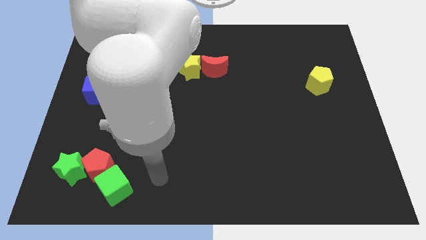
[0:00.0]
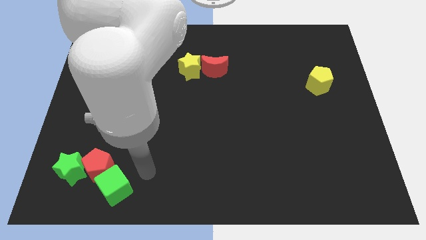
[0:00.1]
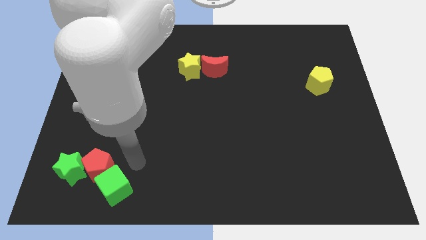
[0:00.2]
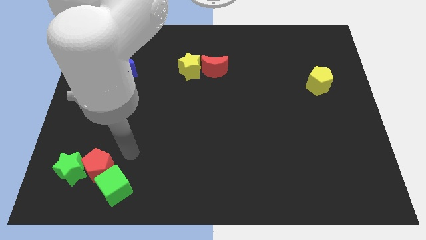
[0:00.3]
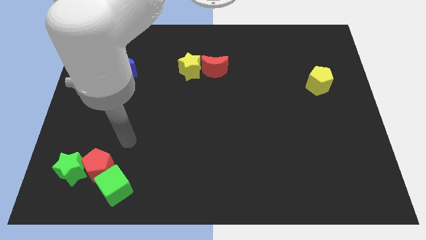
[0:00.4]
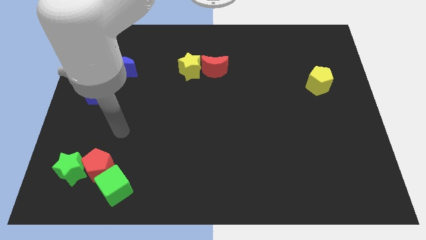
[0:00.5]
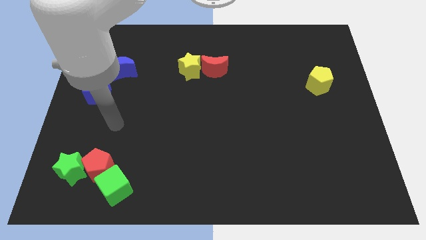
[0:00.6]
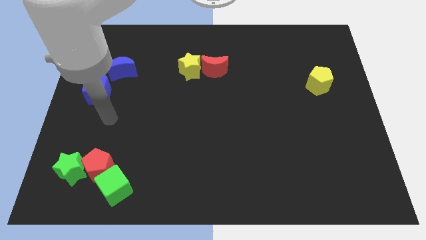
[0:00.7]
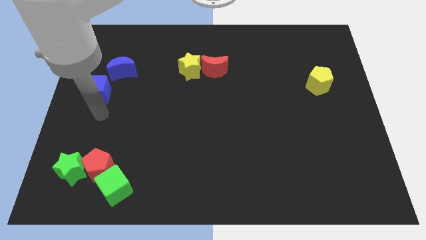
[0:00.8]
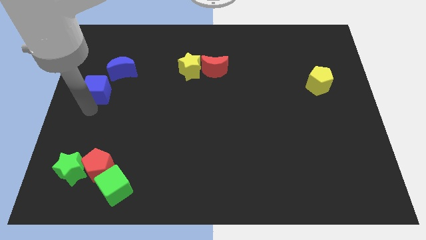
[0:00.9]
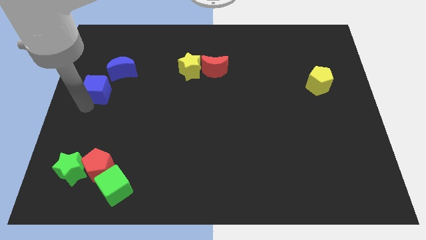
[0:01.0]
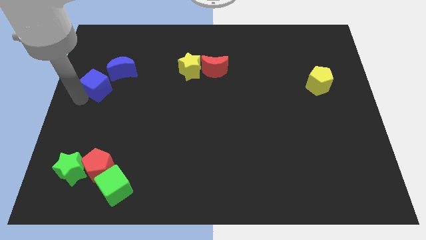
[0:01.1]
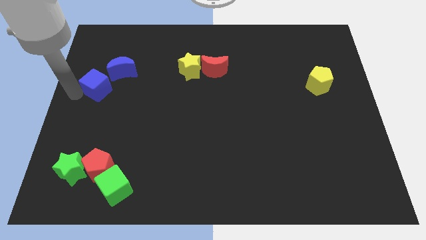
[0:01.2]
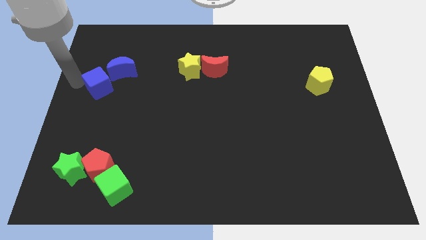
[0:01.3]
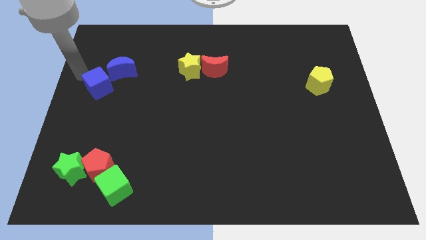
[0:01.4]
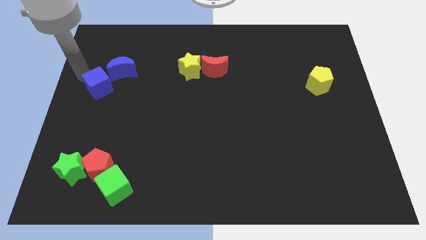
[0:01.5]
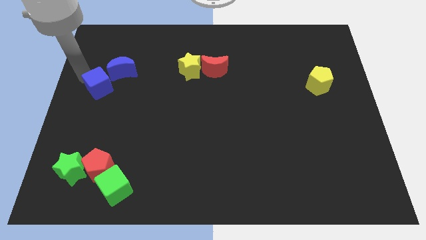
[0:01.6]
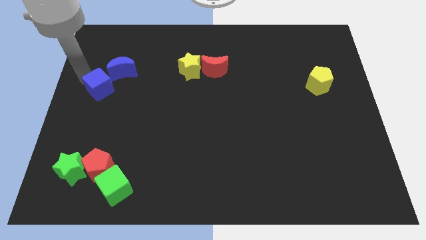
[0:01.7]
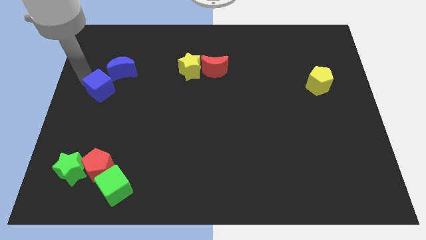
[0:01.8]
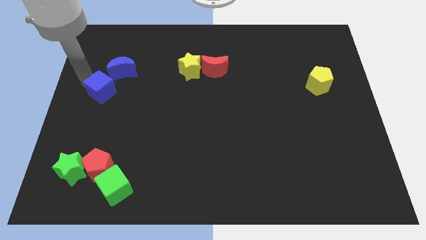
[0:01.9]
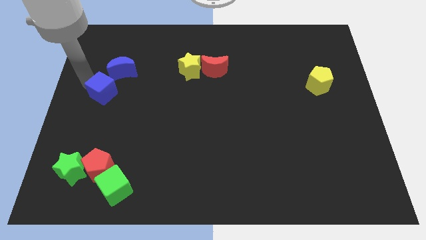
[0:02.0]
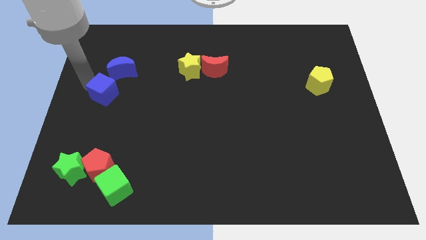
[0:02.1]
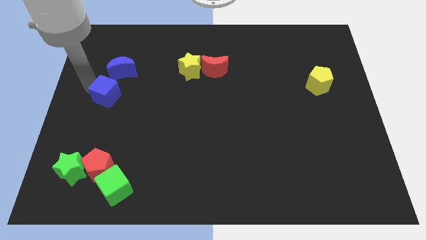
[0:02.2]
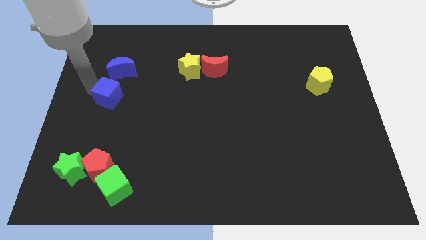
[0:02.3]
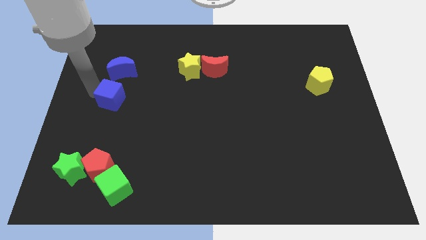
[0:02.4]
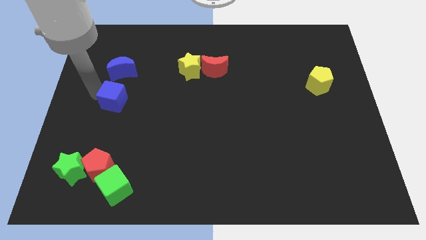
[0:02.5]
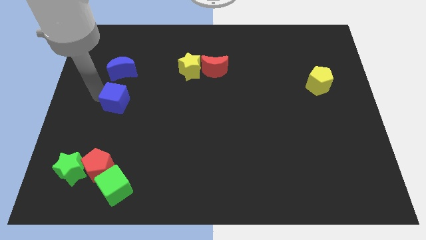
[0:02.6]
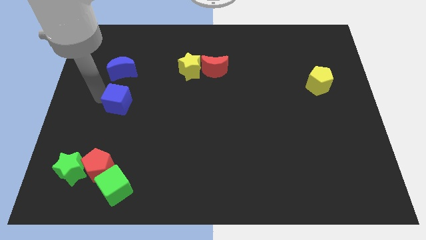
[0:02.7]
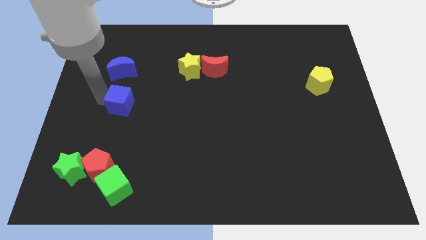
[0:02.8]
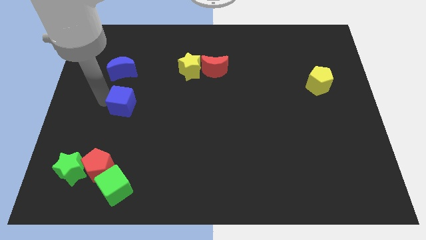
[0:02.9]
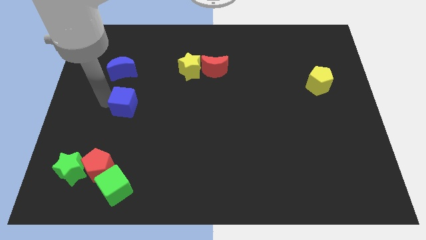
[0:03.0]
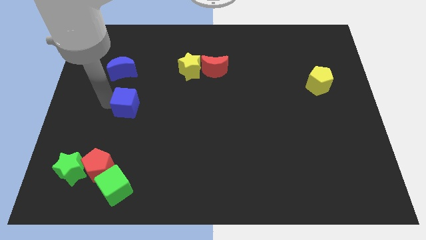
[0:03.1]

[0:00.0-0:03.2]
slide the blue cube slightly right

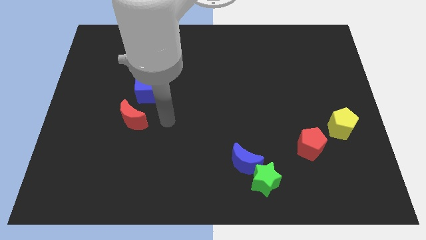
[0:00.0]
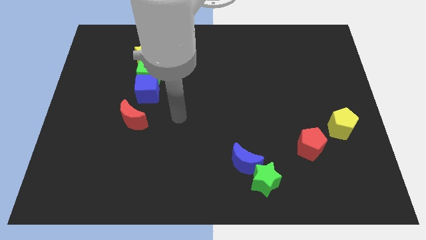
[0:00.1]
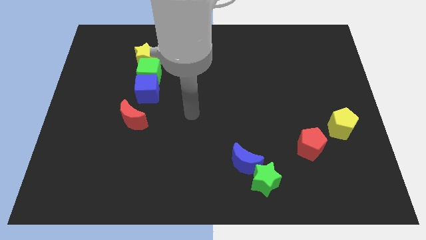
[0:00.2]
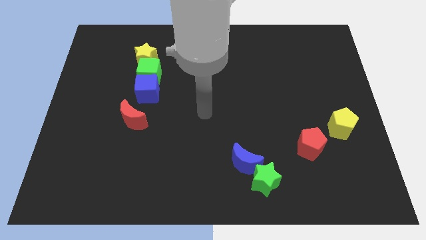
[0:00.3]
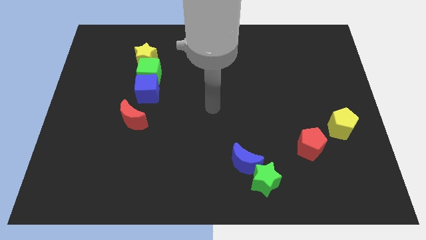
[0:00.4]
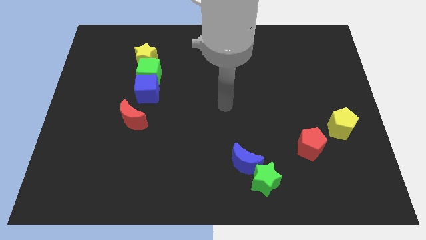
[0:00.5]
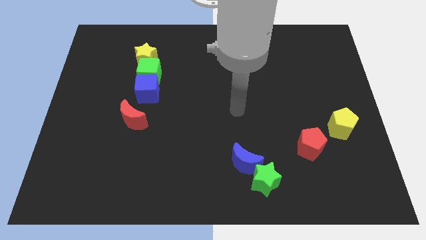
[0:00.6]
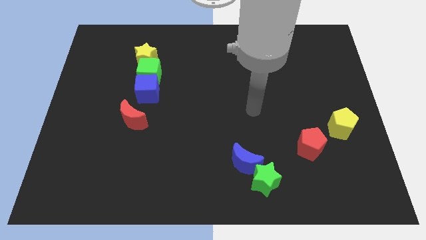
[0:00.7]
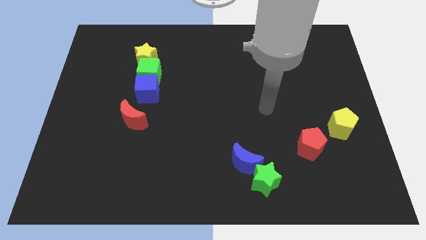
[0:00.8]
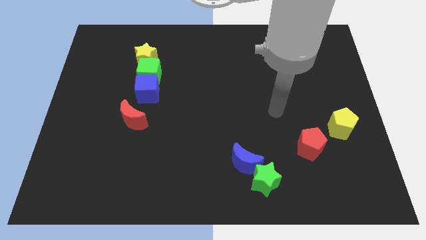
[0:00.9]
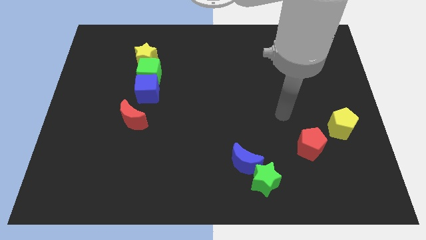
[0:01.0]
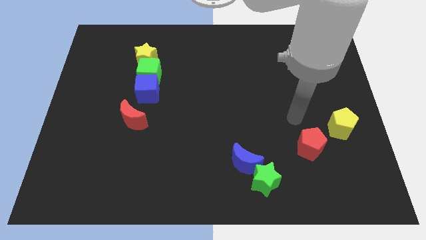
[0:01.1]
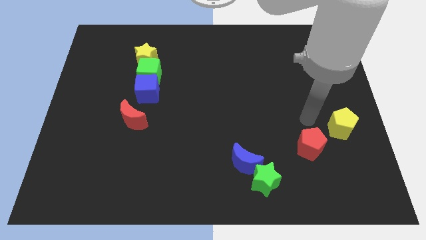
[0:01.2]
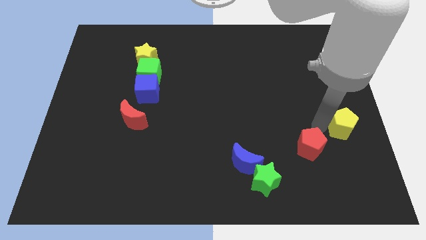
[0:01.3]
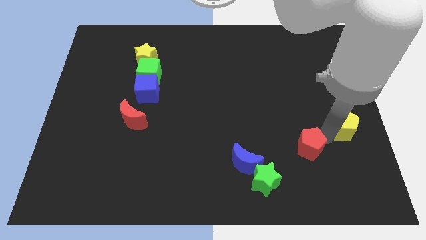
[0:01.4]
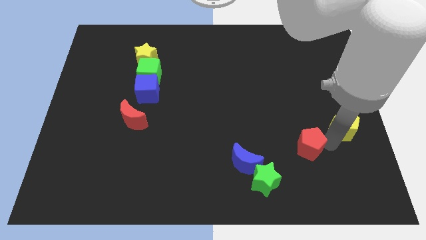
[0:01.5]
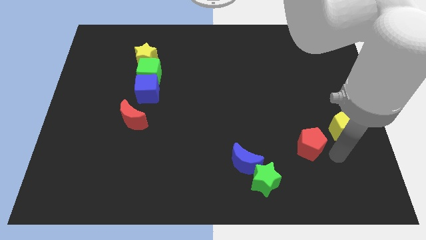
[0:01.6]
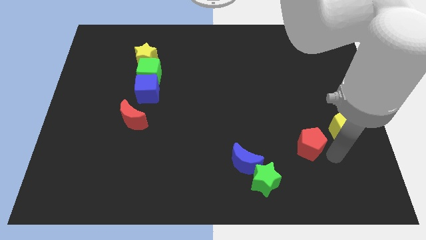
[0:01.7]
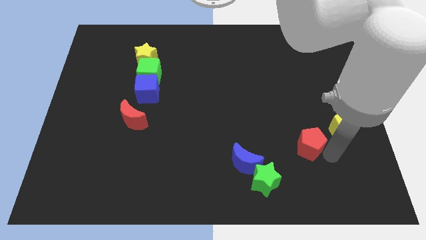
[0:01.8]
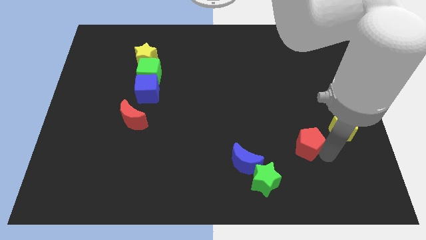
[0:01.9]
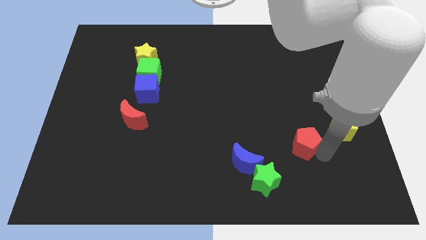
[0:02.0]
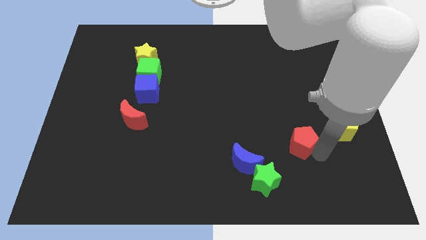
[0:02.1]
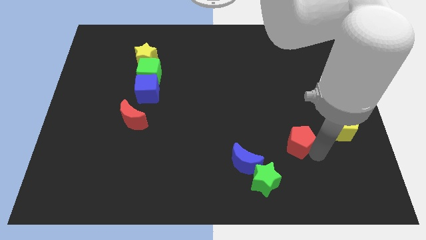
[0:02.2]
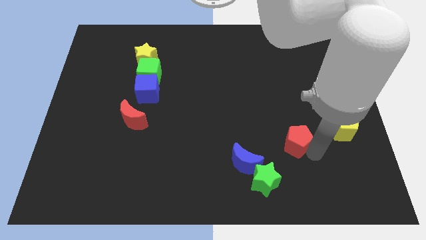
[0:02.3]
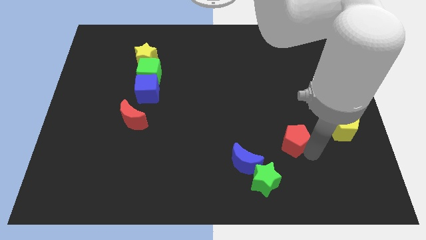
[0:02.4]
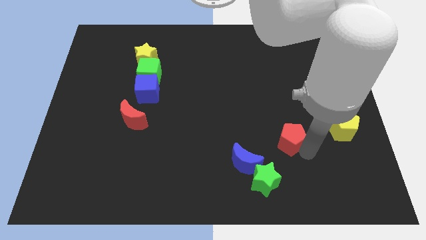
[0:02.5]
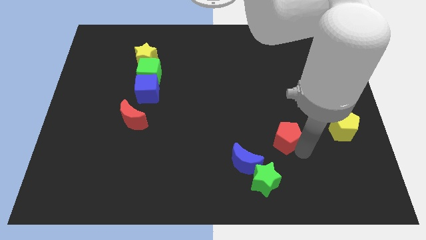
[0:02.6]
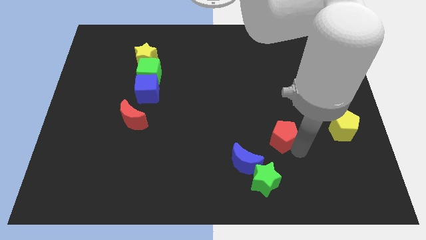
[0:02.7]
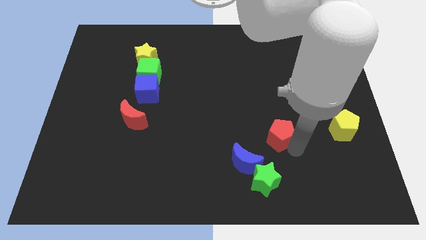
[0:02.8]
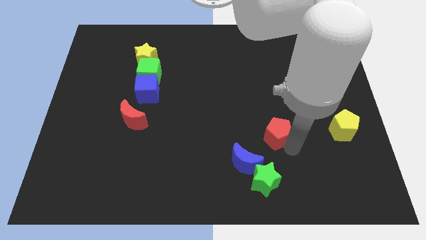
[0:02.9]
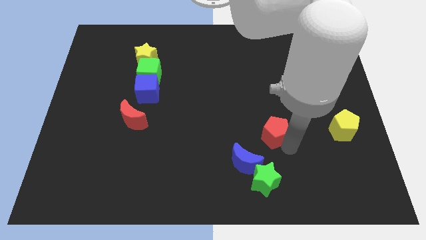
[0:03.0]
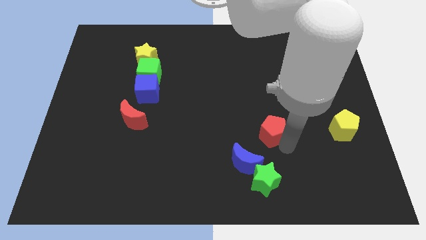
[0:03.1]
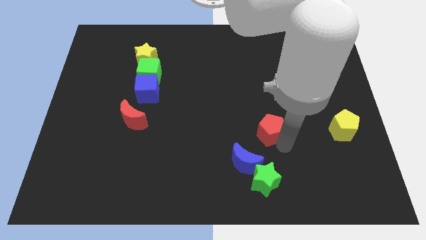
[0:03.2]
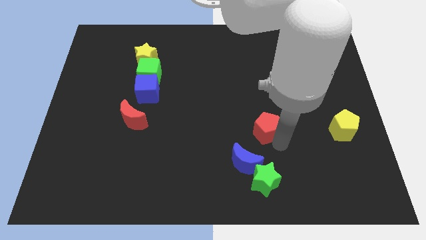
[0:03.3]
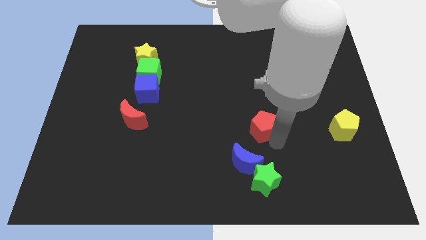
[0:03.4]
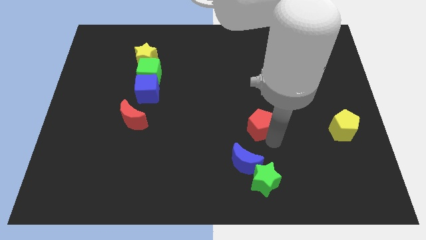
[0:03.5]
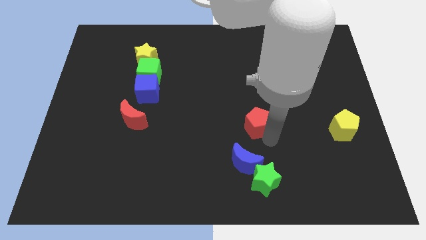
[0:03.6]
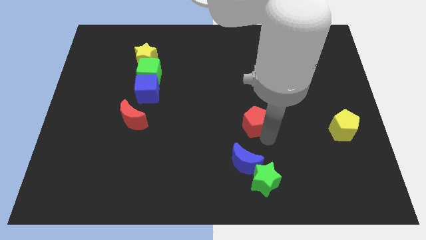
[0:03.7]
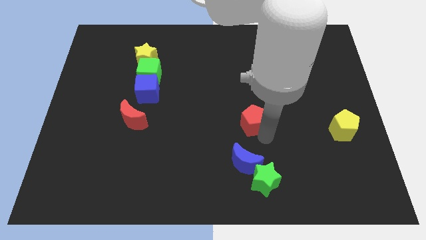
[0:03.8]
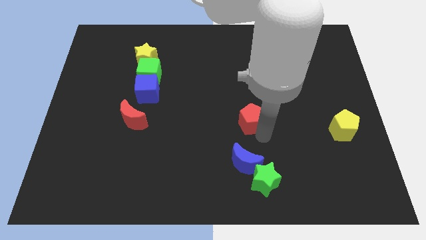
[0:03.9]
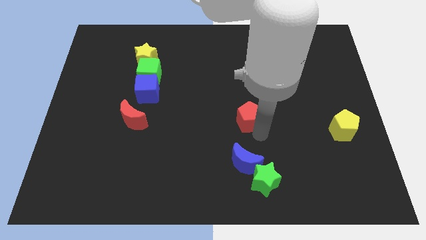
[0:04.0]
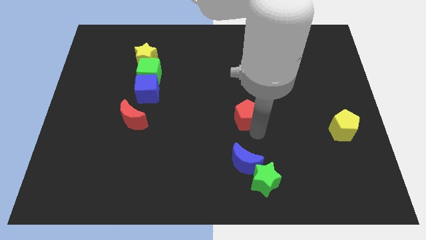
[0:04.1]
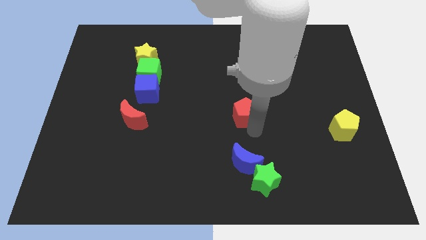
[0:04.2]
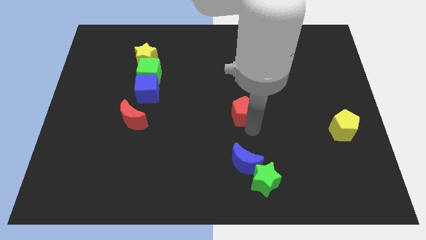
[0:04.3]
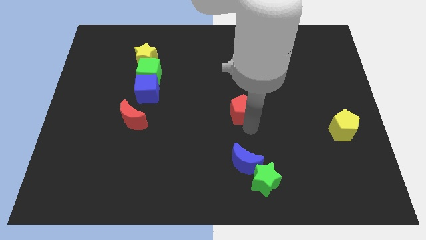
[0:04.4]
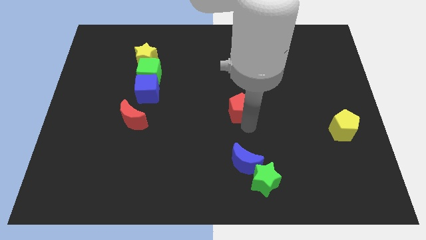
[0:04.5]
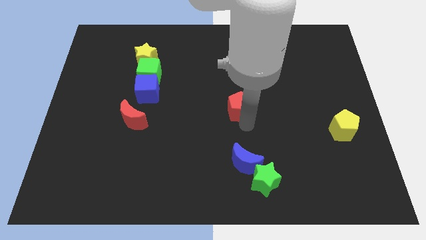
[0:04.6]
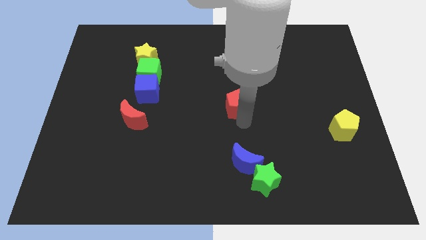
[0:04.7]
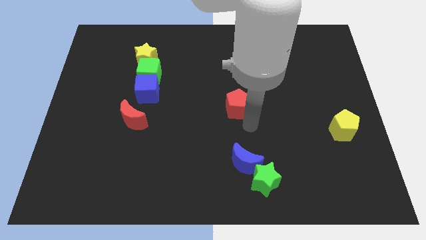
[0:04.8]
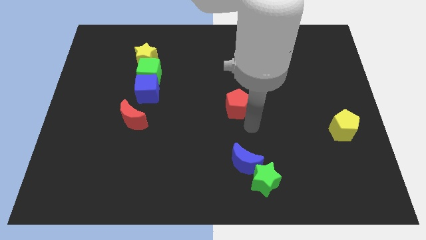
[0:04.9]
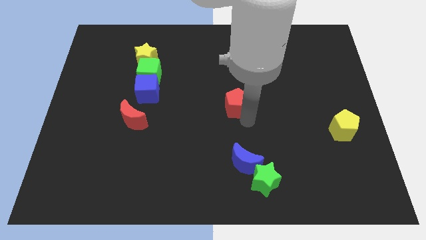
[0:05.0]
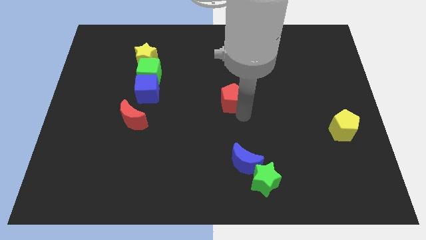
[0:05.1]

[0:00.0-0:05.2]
slide the red pentagon up and then left
